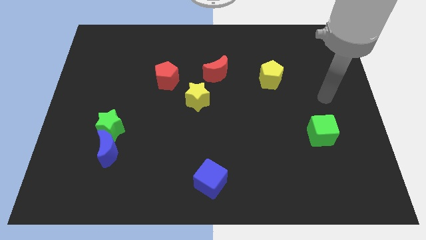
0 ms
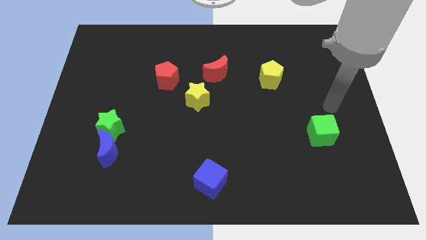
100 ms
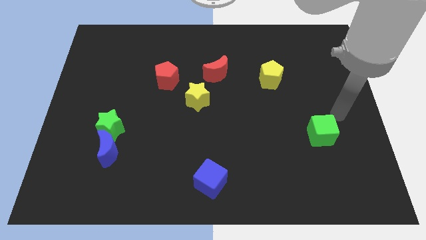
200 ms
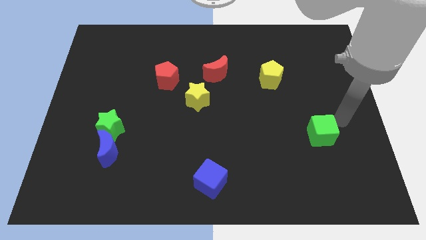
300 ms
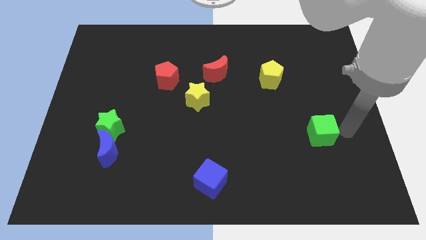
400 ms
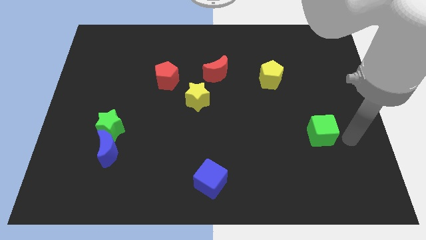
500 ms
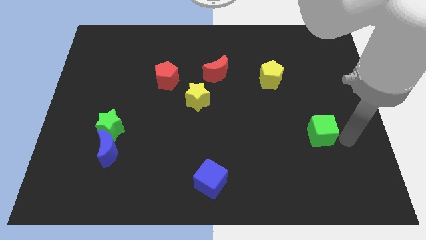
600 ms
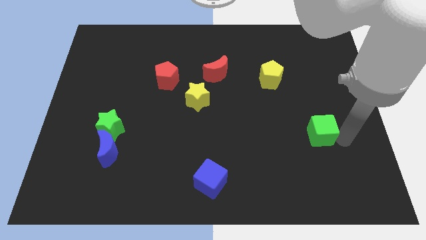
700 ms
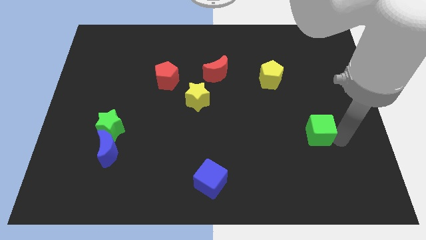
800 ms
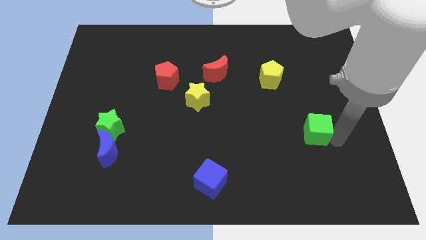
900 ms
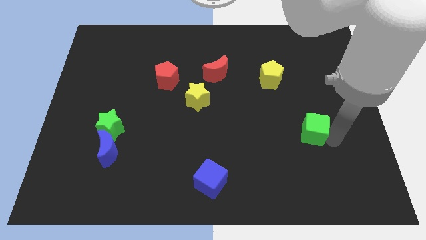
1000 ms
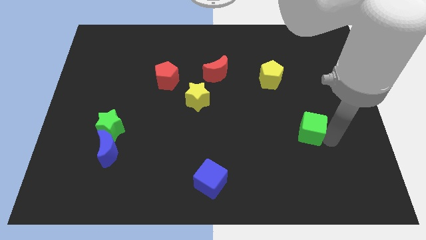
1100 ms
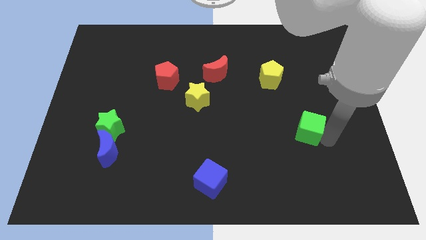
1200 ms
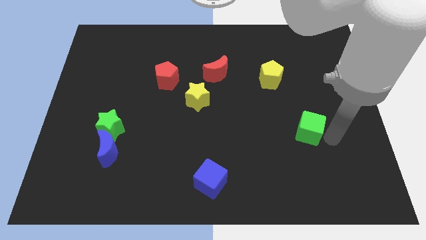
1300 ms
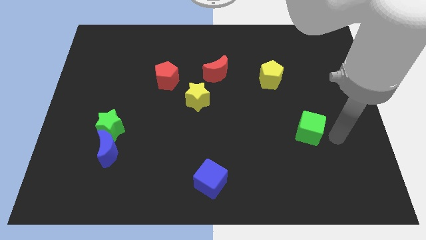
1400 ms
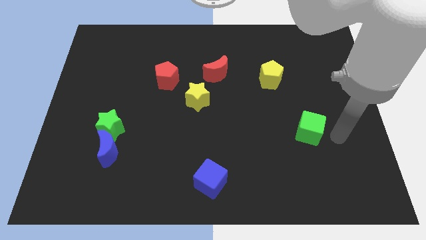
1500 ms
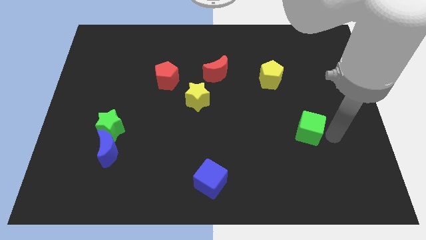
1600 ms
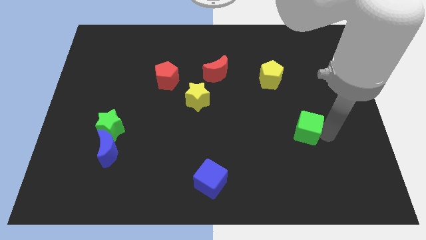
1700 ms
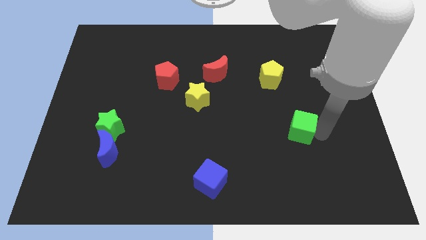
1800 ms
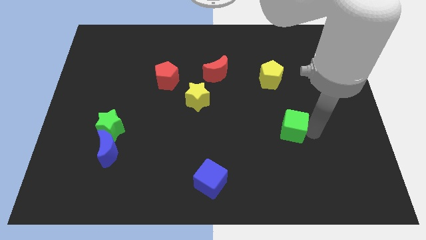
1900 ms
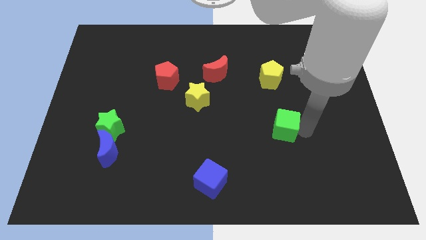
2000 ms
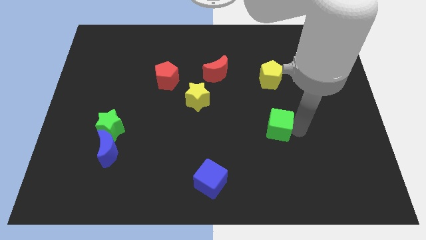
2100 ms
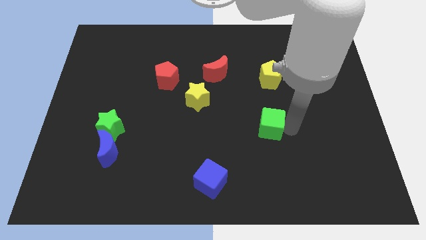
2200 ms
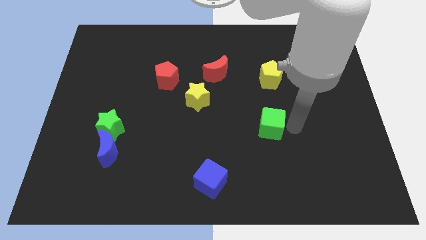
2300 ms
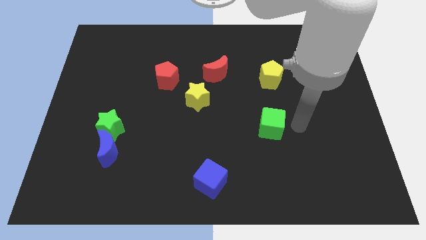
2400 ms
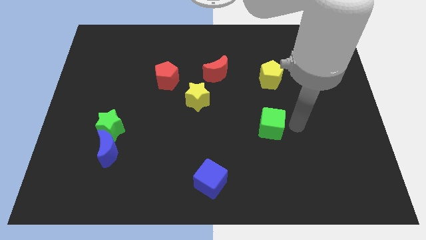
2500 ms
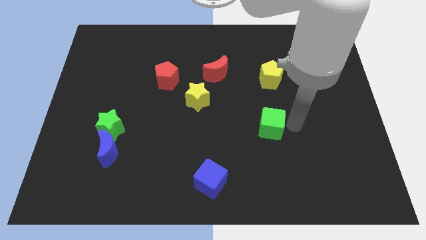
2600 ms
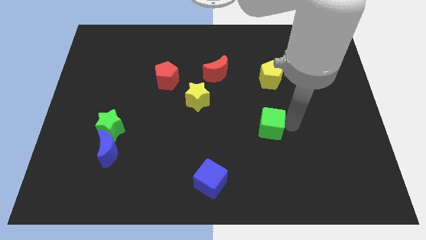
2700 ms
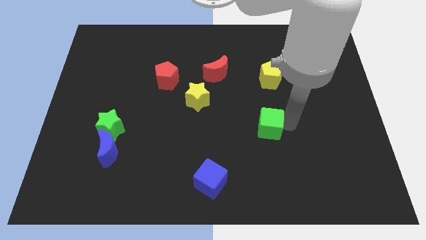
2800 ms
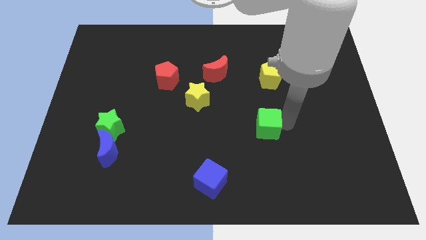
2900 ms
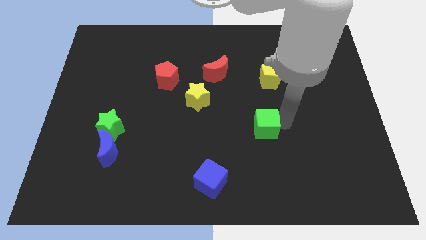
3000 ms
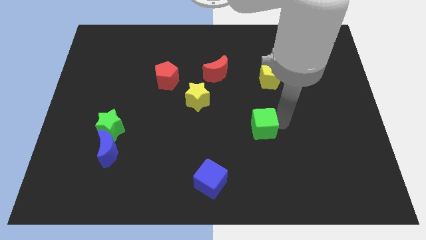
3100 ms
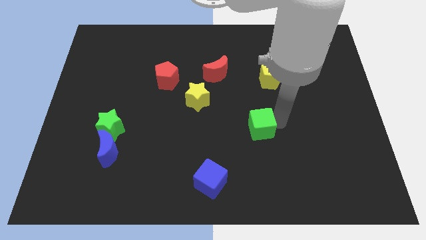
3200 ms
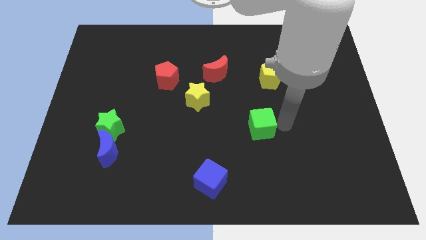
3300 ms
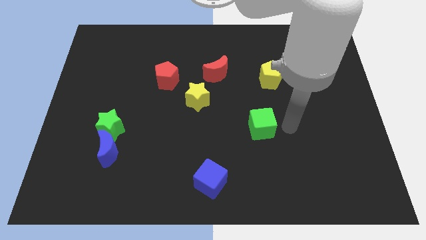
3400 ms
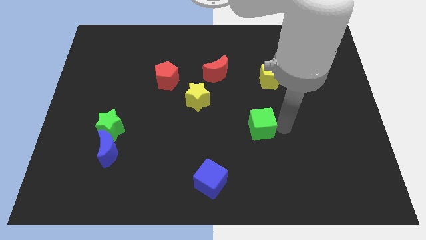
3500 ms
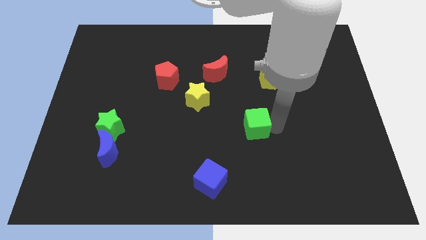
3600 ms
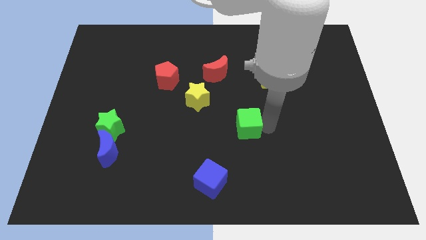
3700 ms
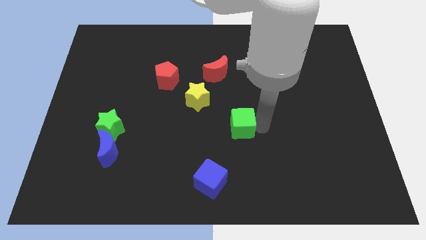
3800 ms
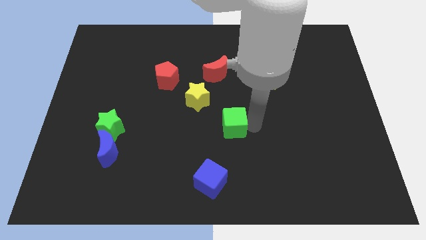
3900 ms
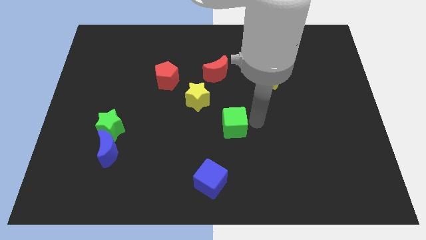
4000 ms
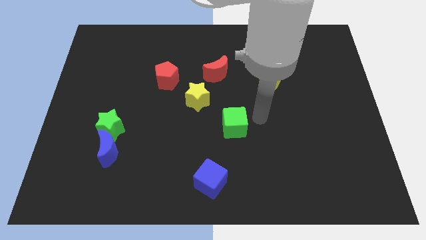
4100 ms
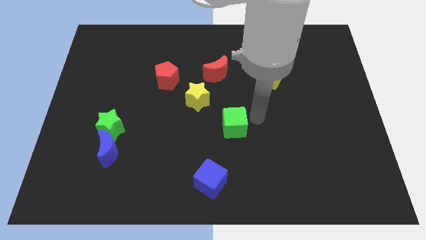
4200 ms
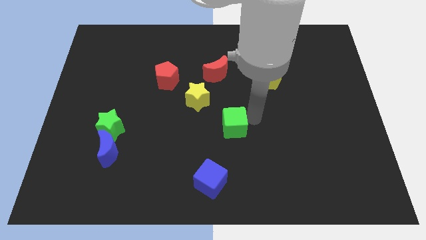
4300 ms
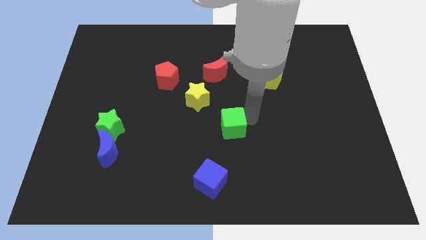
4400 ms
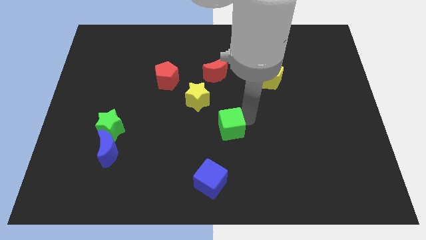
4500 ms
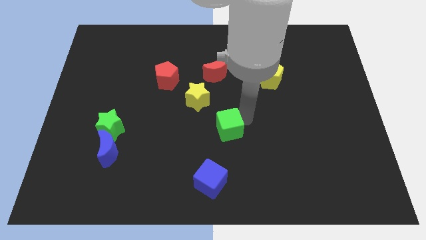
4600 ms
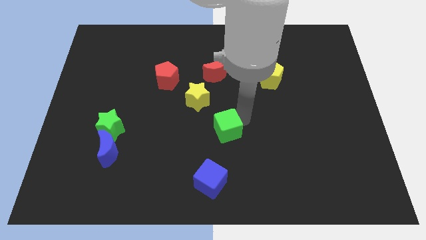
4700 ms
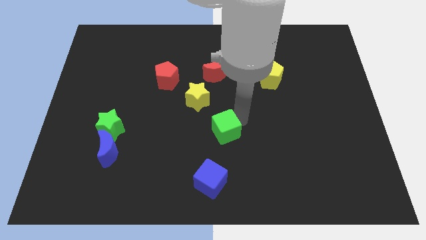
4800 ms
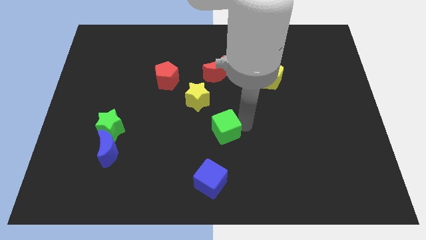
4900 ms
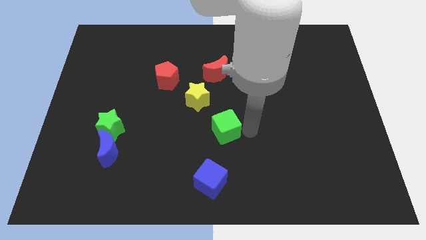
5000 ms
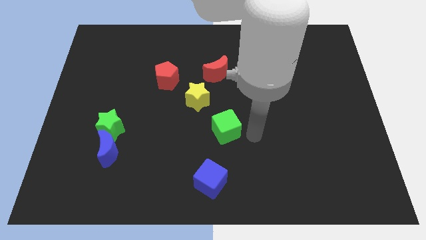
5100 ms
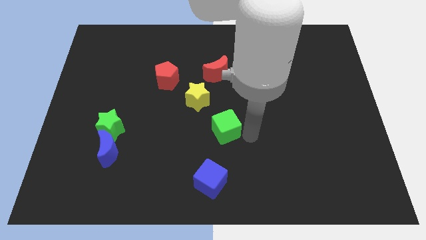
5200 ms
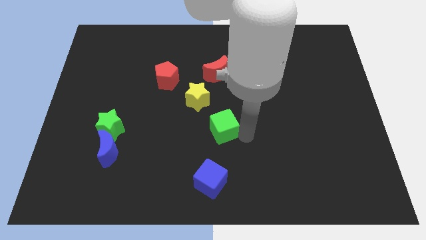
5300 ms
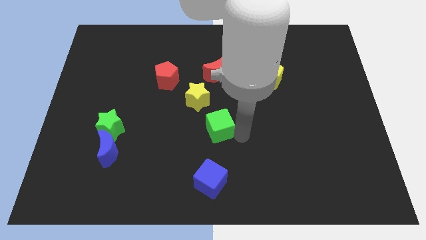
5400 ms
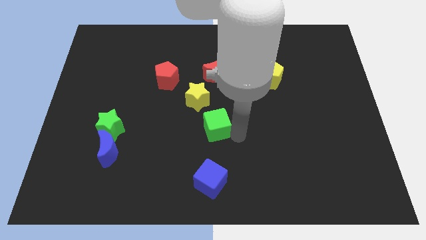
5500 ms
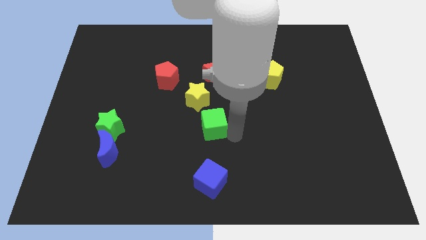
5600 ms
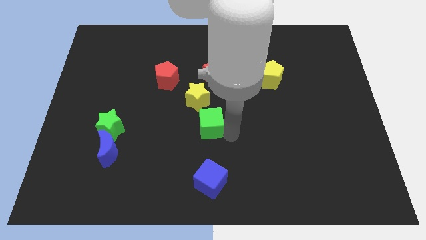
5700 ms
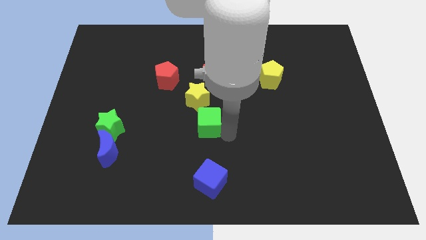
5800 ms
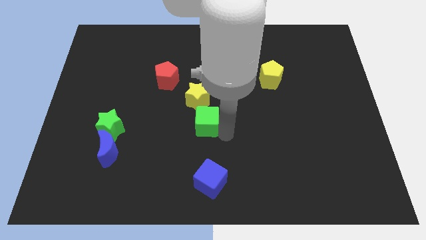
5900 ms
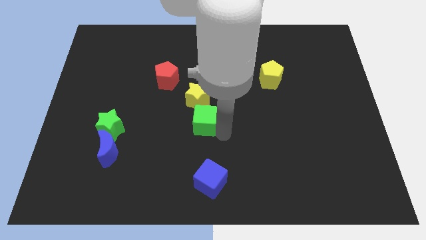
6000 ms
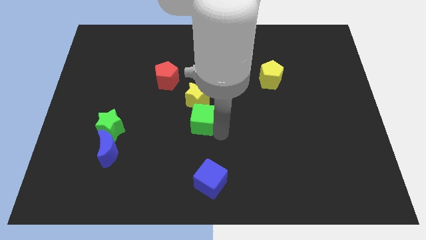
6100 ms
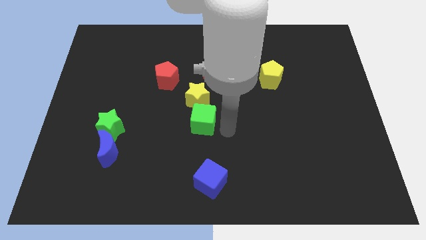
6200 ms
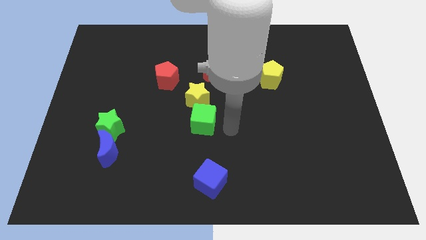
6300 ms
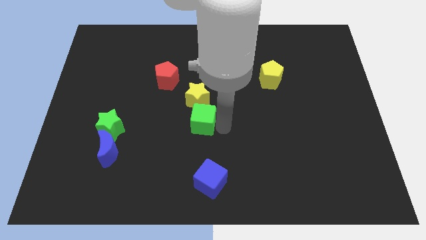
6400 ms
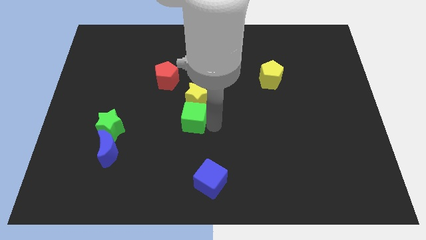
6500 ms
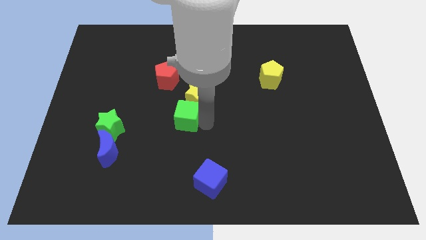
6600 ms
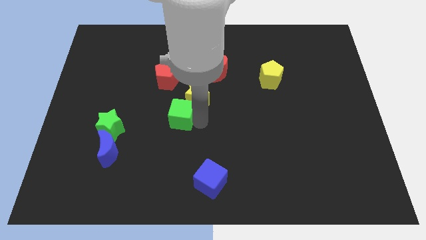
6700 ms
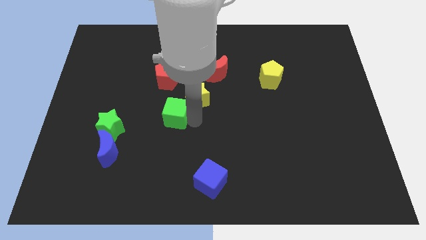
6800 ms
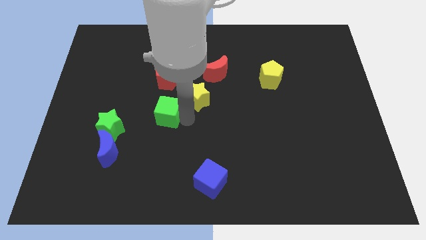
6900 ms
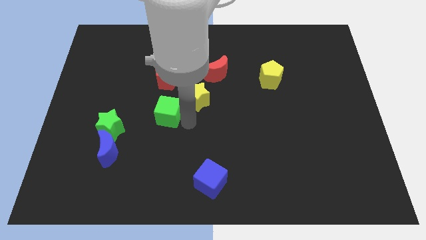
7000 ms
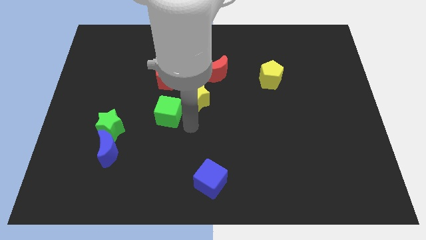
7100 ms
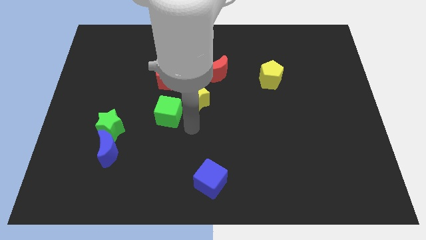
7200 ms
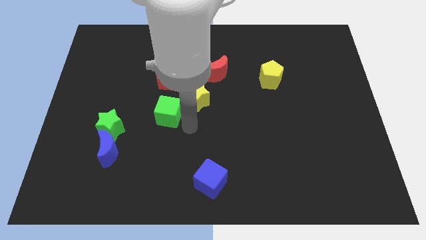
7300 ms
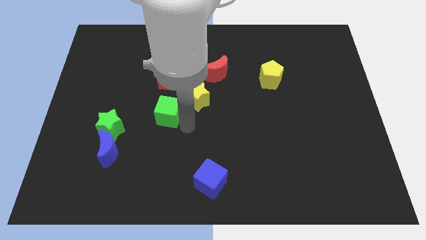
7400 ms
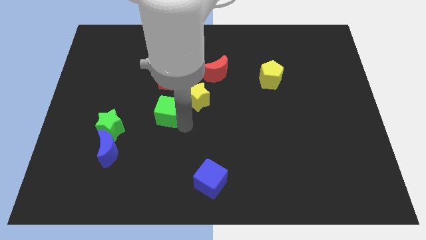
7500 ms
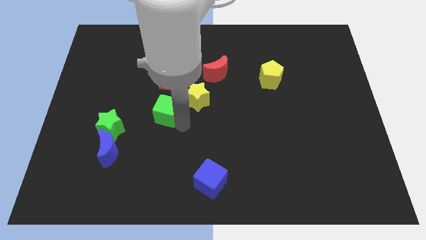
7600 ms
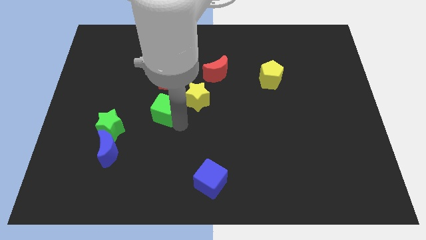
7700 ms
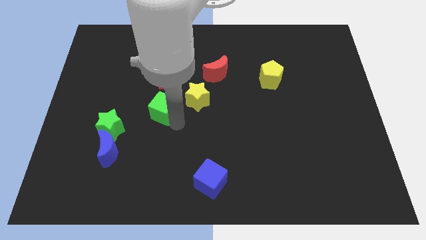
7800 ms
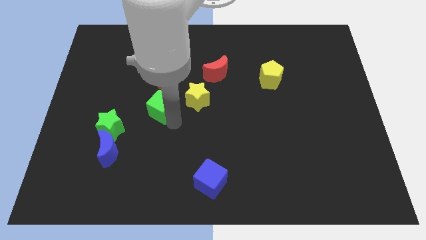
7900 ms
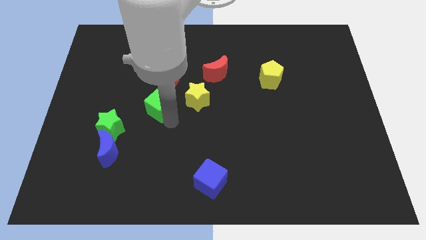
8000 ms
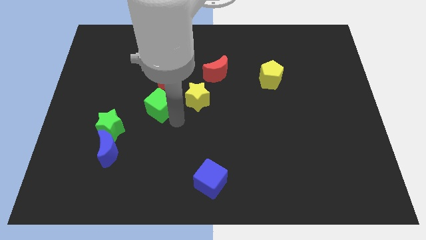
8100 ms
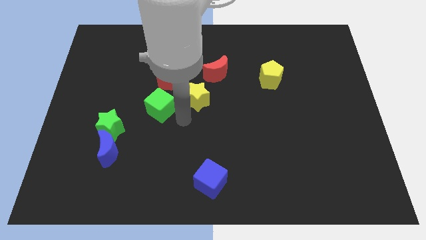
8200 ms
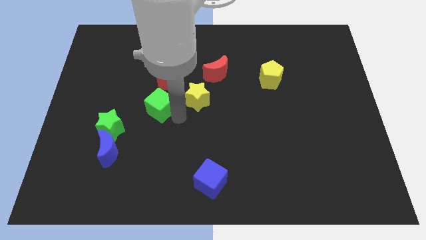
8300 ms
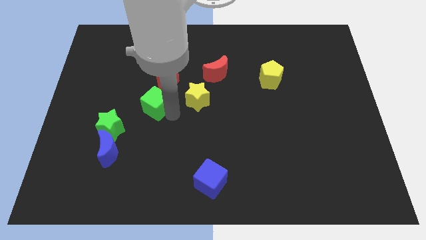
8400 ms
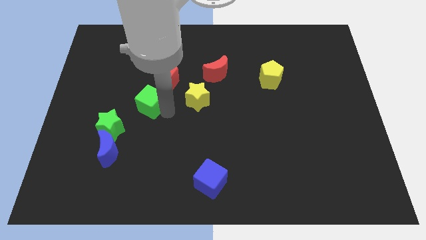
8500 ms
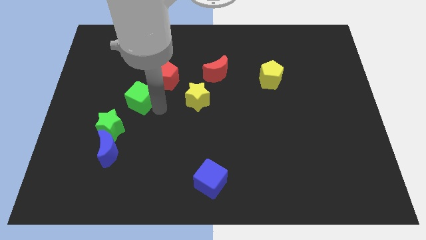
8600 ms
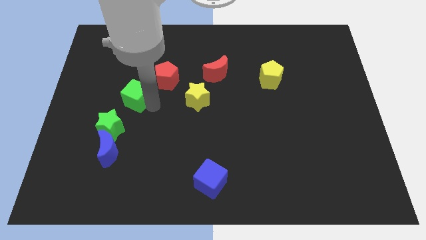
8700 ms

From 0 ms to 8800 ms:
slide the green cube above the green star
